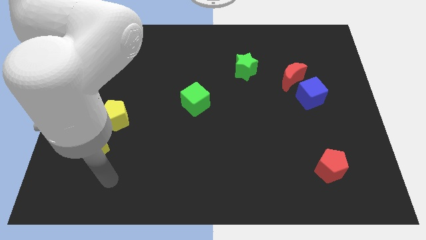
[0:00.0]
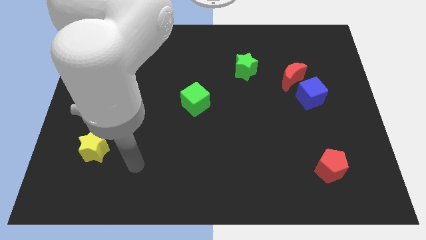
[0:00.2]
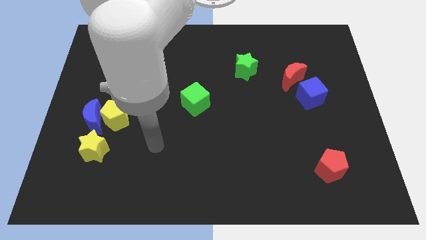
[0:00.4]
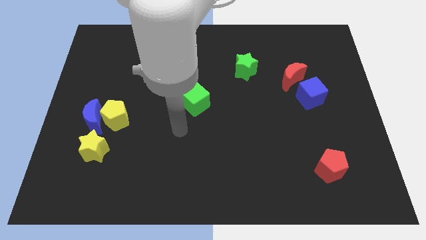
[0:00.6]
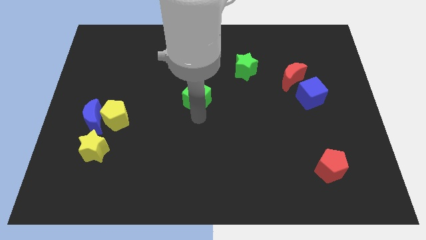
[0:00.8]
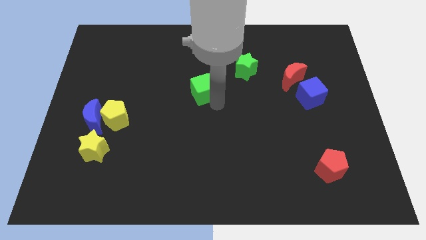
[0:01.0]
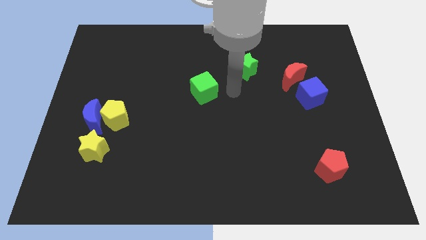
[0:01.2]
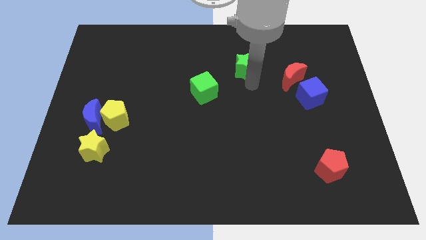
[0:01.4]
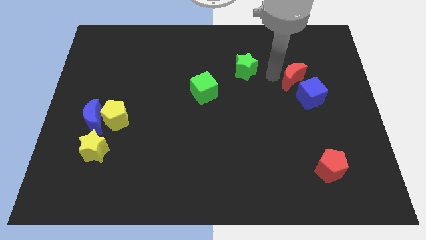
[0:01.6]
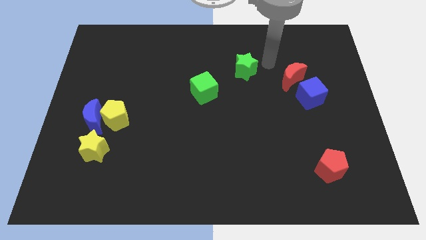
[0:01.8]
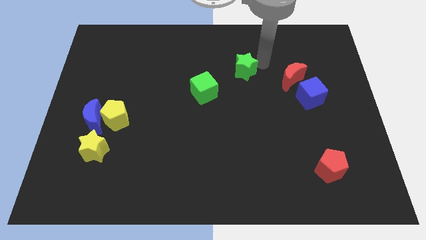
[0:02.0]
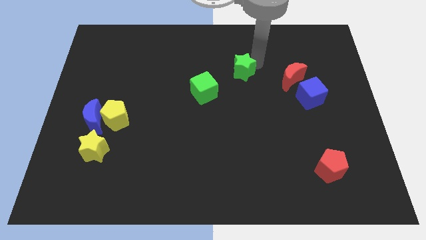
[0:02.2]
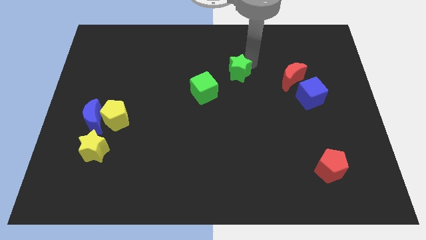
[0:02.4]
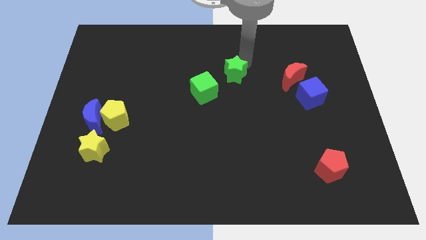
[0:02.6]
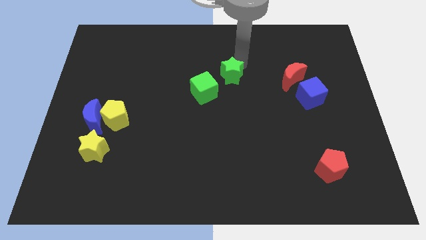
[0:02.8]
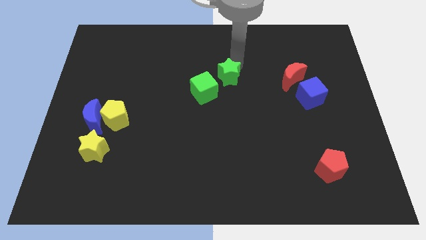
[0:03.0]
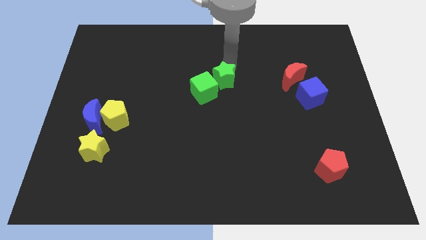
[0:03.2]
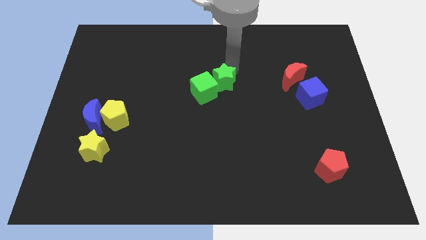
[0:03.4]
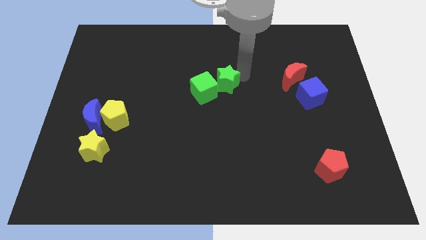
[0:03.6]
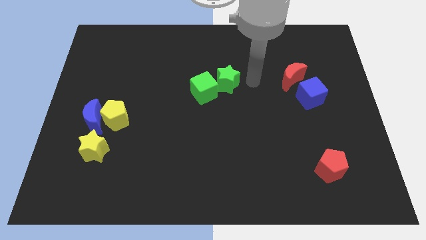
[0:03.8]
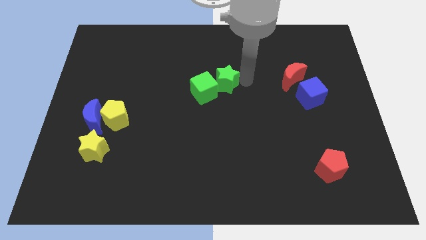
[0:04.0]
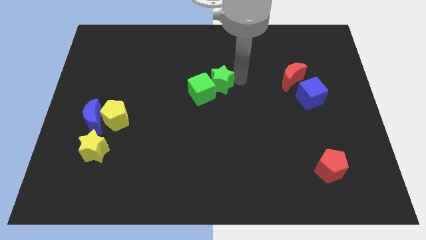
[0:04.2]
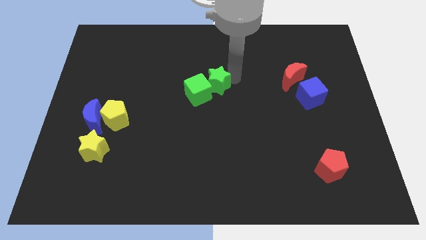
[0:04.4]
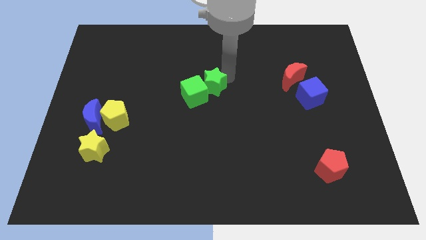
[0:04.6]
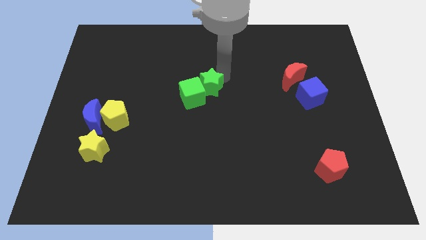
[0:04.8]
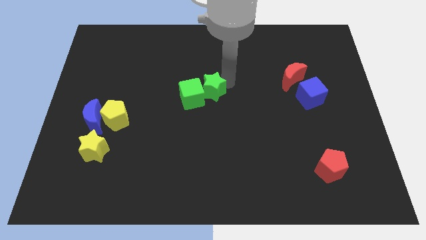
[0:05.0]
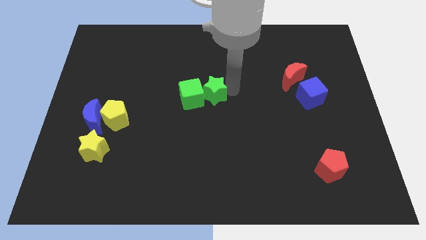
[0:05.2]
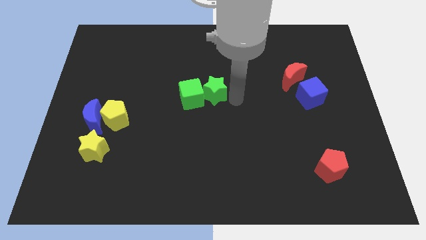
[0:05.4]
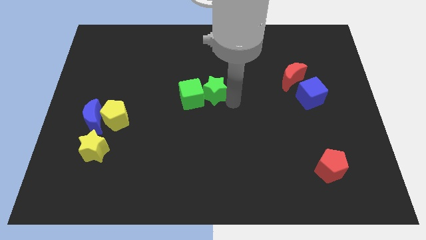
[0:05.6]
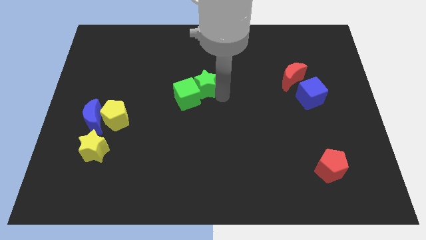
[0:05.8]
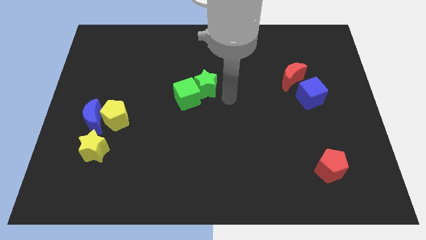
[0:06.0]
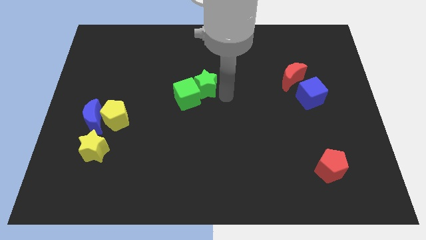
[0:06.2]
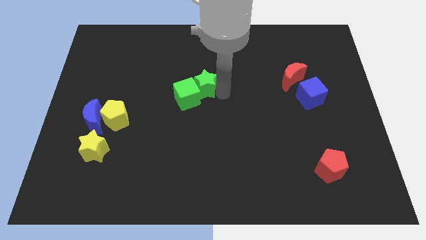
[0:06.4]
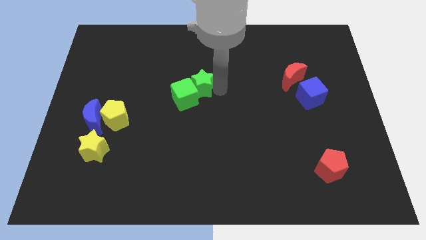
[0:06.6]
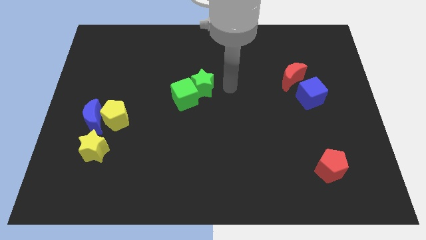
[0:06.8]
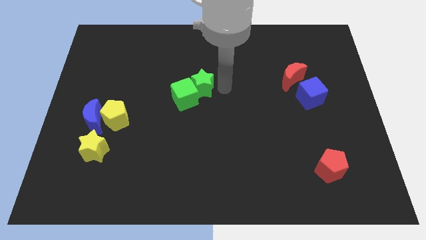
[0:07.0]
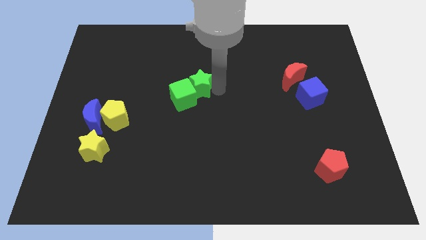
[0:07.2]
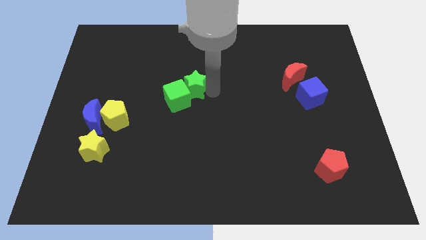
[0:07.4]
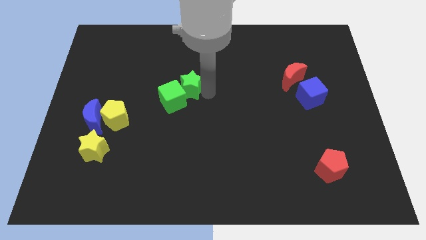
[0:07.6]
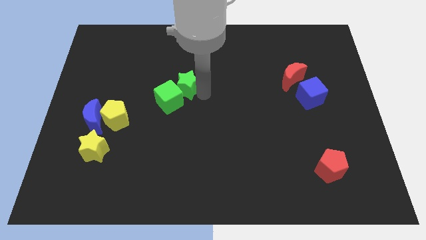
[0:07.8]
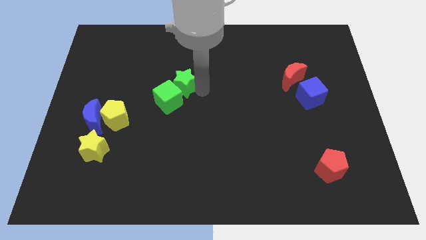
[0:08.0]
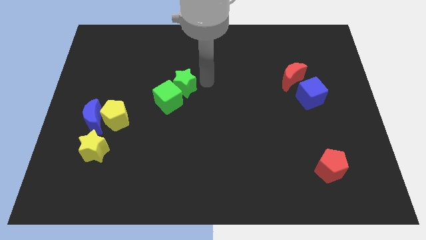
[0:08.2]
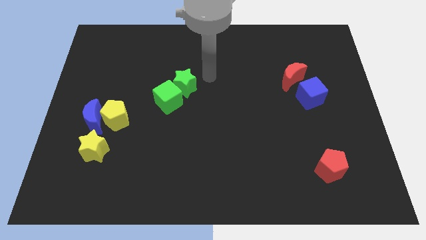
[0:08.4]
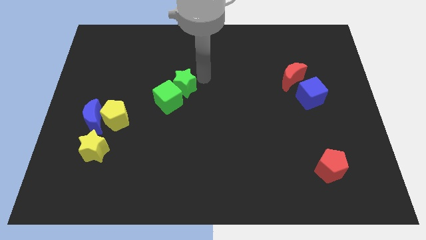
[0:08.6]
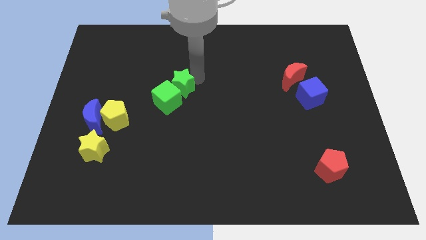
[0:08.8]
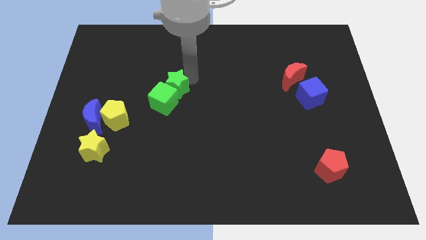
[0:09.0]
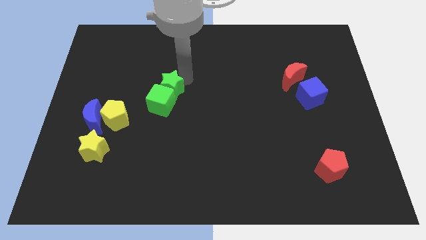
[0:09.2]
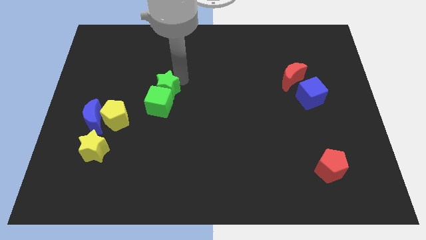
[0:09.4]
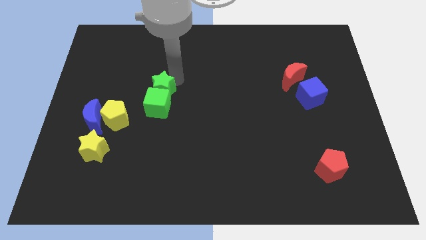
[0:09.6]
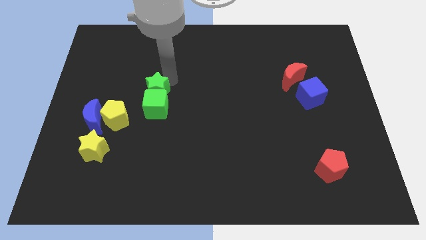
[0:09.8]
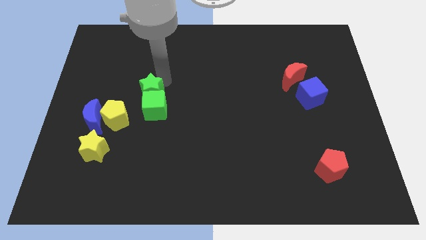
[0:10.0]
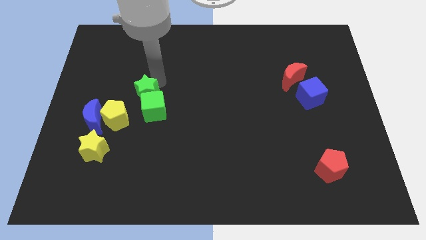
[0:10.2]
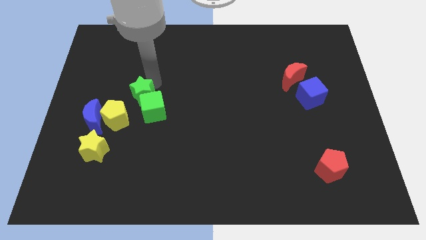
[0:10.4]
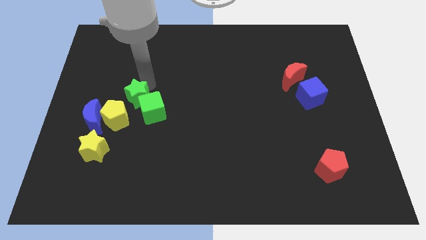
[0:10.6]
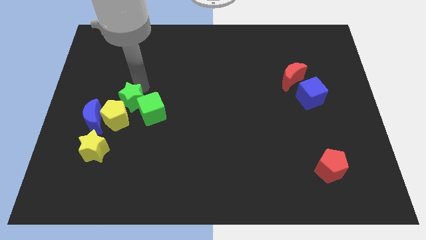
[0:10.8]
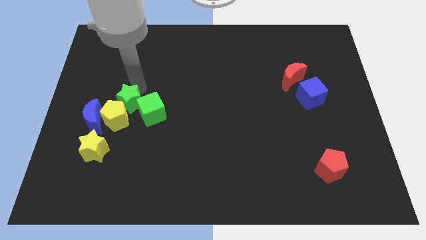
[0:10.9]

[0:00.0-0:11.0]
move the green star close to the yellow pentagon

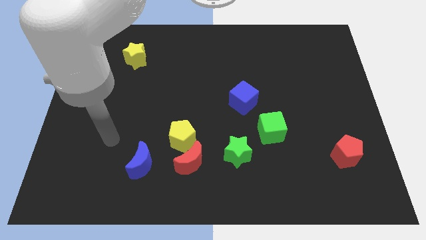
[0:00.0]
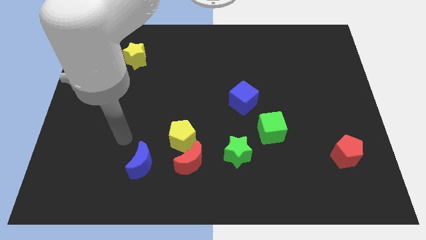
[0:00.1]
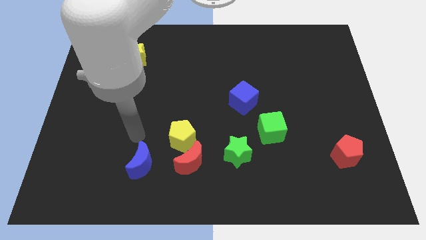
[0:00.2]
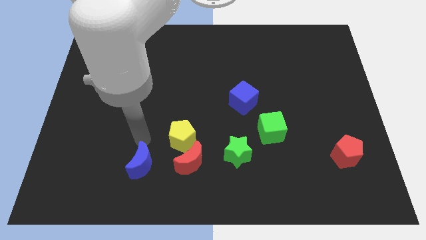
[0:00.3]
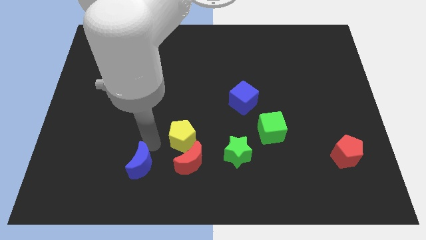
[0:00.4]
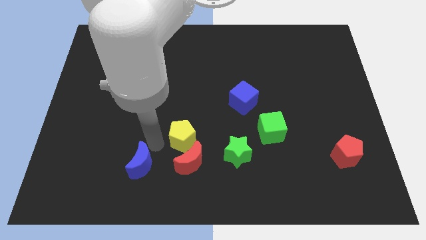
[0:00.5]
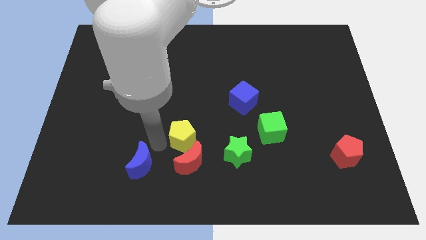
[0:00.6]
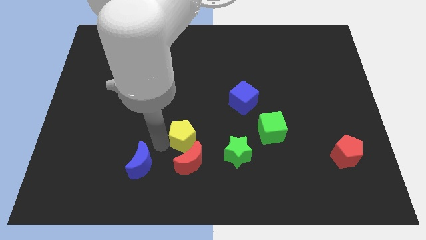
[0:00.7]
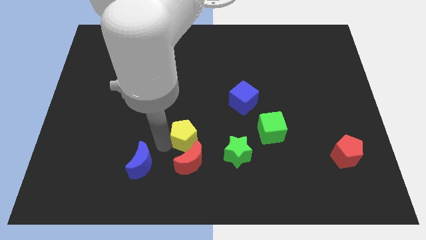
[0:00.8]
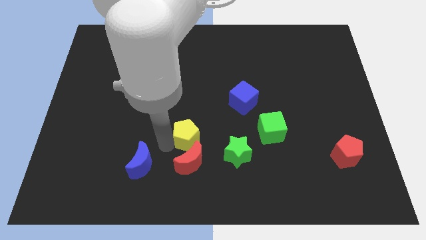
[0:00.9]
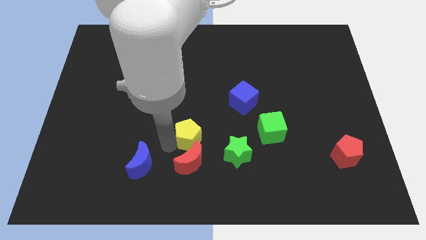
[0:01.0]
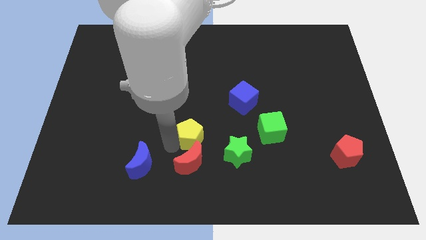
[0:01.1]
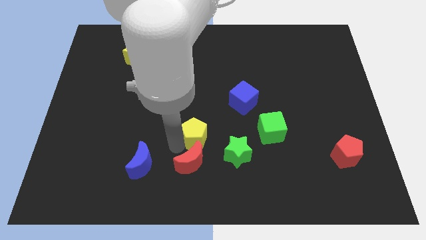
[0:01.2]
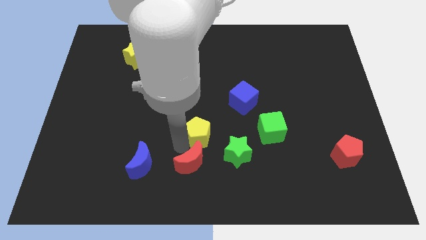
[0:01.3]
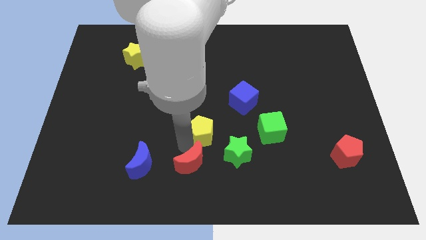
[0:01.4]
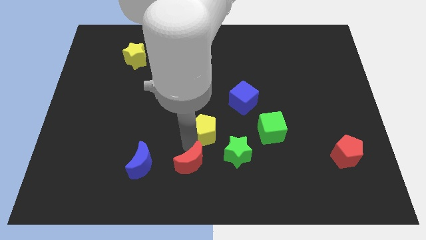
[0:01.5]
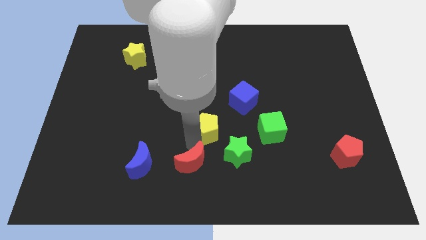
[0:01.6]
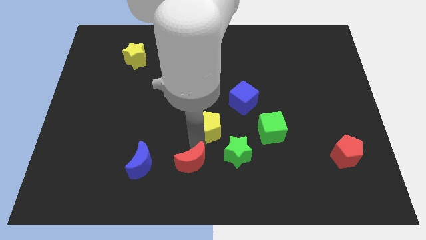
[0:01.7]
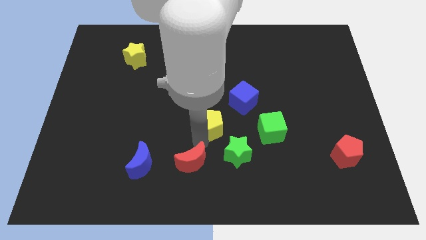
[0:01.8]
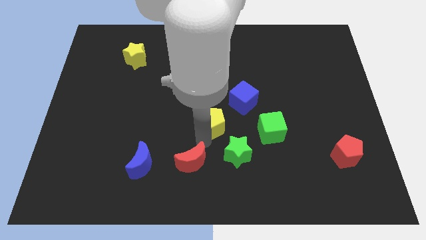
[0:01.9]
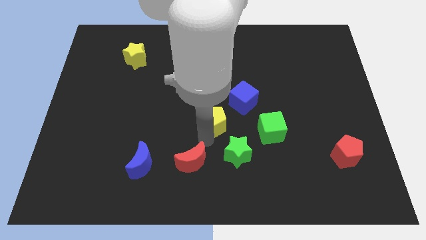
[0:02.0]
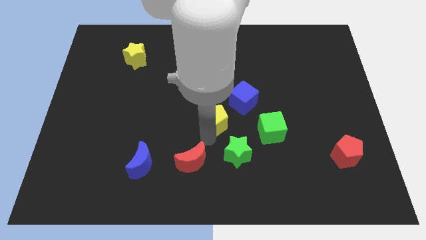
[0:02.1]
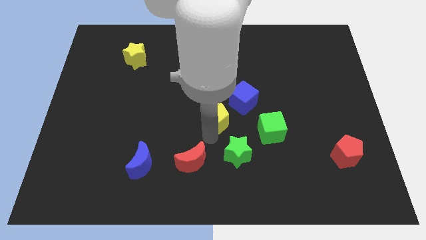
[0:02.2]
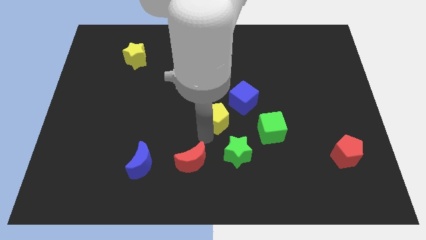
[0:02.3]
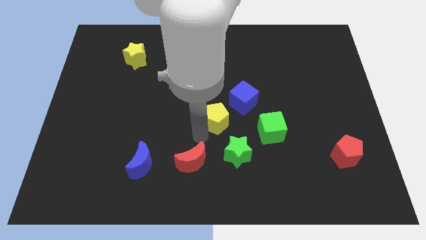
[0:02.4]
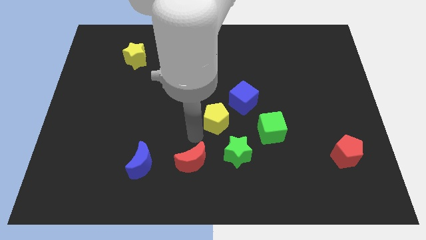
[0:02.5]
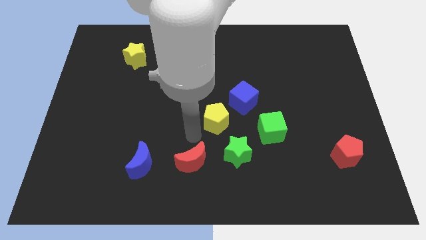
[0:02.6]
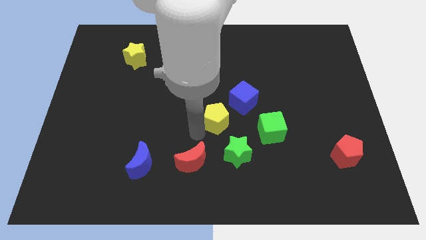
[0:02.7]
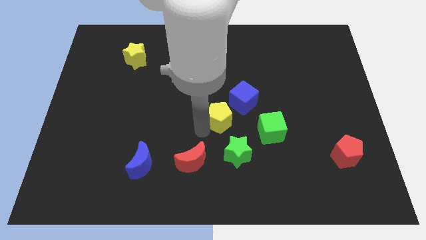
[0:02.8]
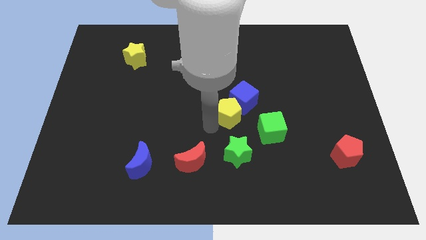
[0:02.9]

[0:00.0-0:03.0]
move the yellow pentagon towards the blue cube
